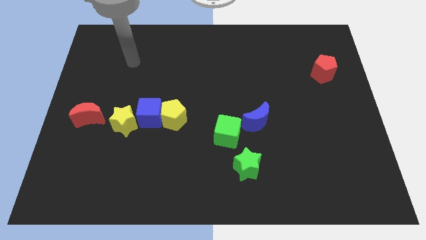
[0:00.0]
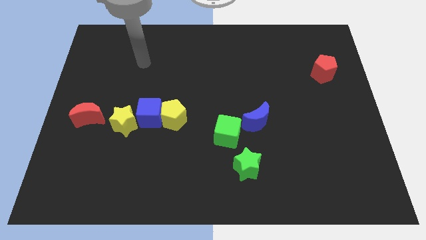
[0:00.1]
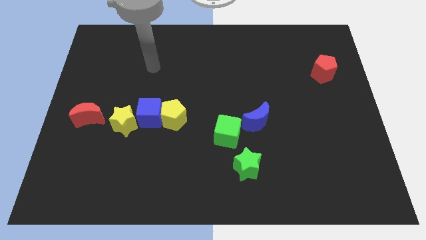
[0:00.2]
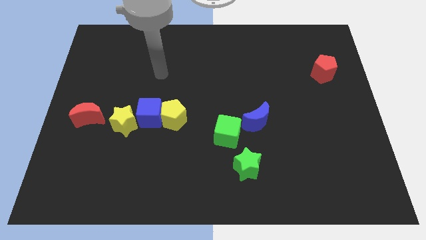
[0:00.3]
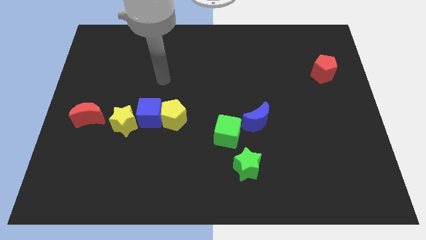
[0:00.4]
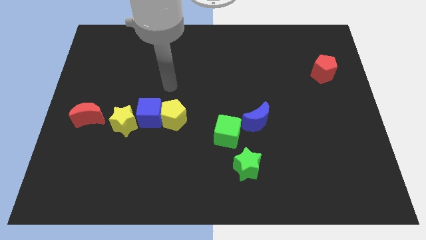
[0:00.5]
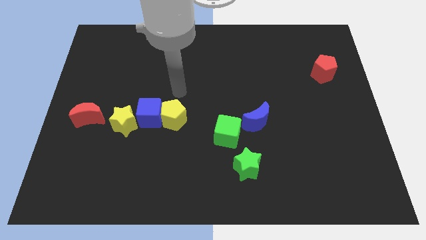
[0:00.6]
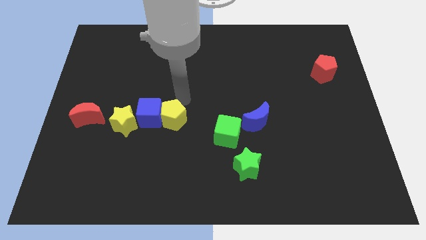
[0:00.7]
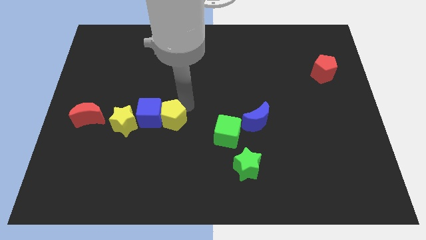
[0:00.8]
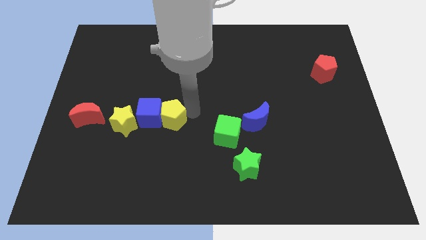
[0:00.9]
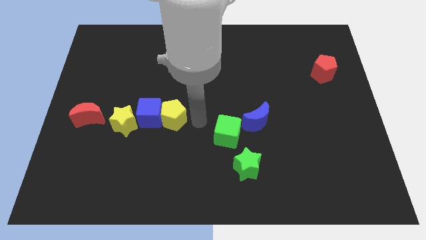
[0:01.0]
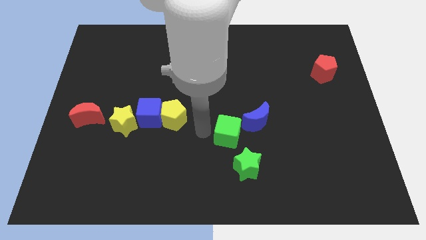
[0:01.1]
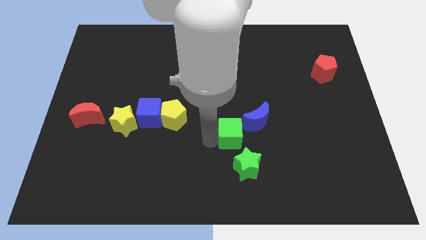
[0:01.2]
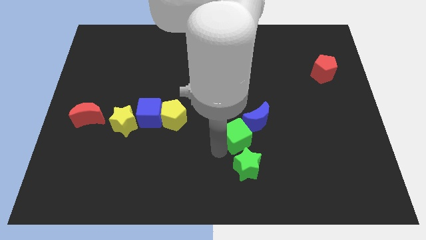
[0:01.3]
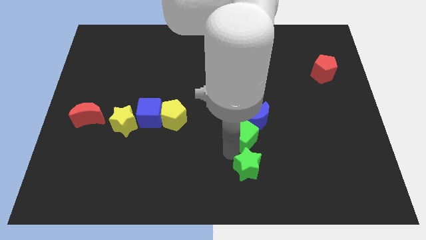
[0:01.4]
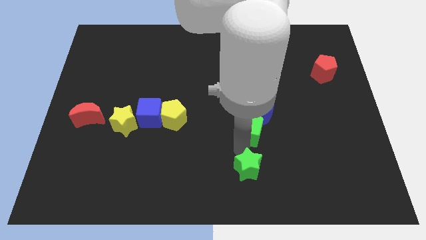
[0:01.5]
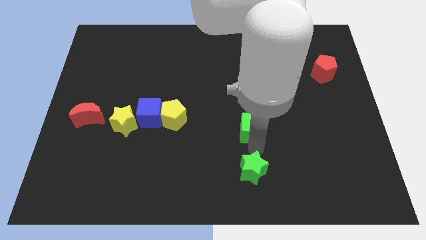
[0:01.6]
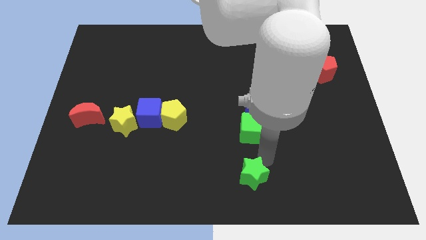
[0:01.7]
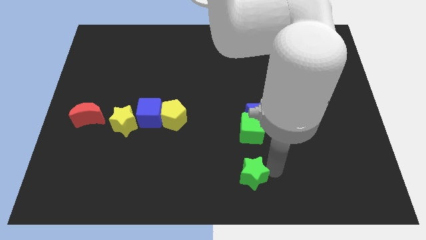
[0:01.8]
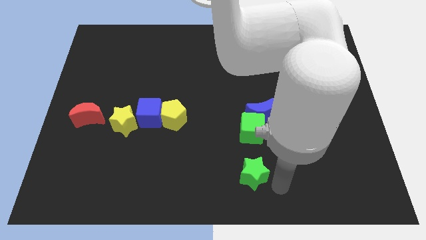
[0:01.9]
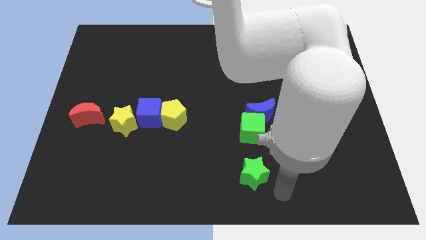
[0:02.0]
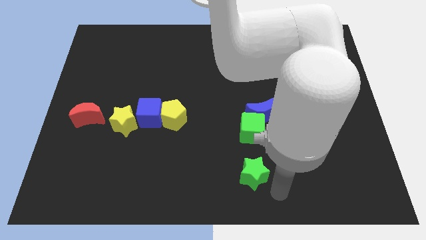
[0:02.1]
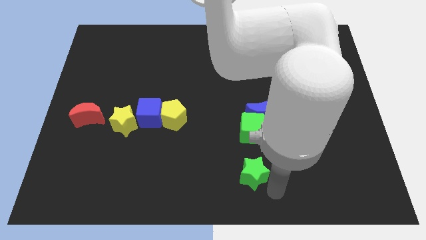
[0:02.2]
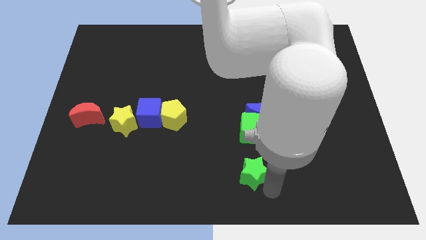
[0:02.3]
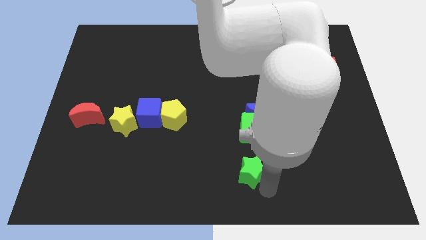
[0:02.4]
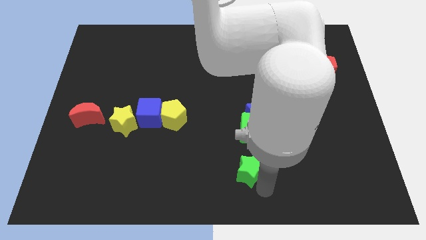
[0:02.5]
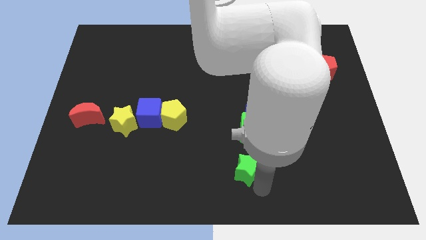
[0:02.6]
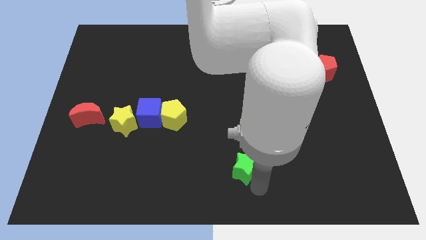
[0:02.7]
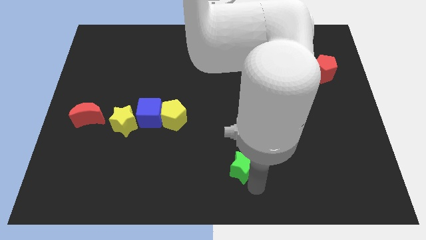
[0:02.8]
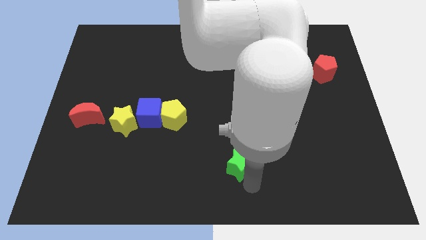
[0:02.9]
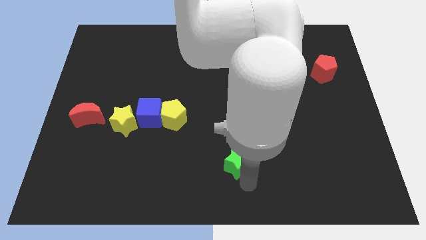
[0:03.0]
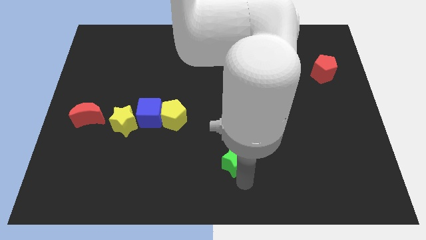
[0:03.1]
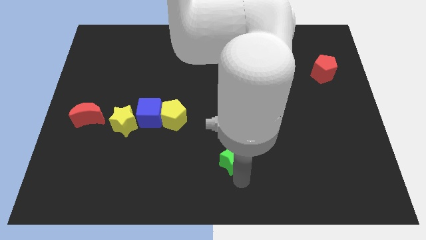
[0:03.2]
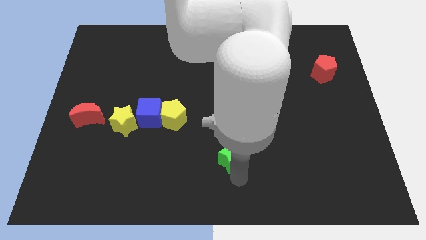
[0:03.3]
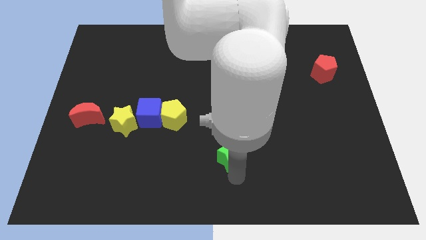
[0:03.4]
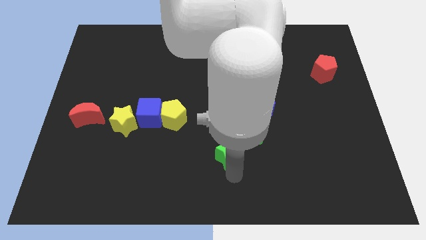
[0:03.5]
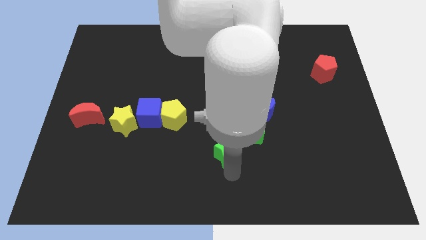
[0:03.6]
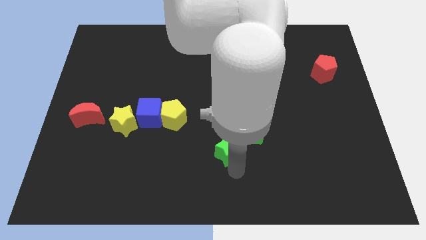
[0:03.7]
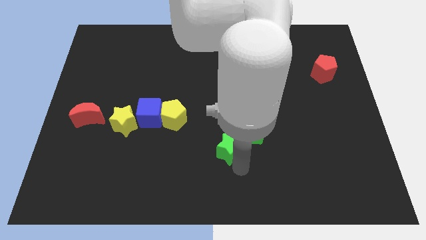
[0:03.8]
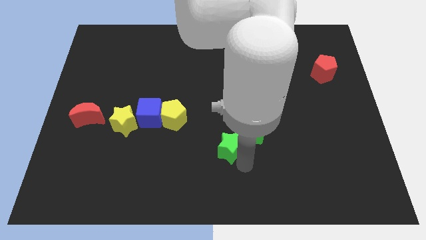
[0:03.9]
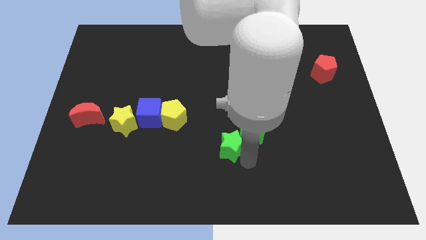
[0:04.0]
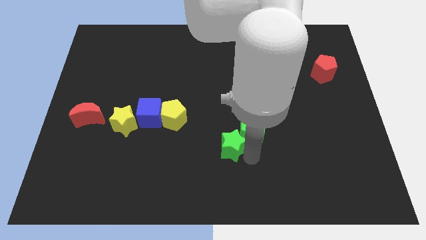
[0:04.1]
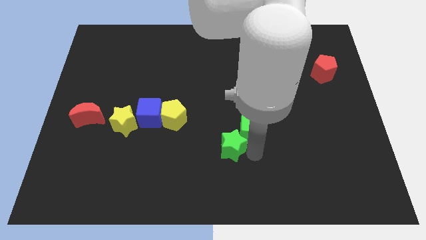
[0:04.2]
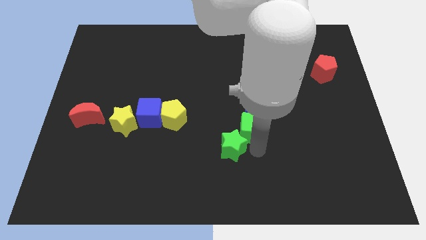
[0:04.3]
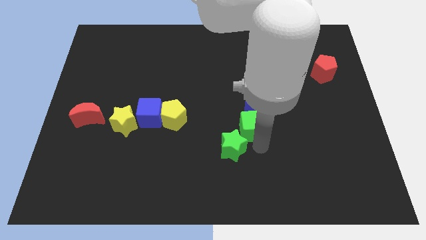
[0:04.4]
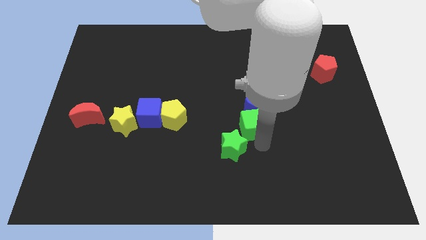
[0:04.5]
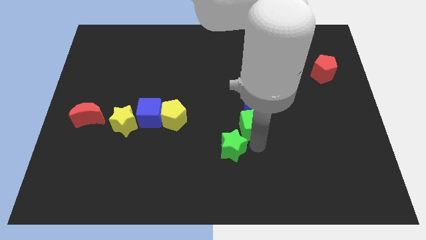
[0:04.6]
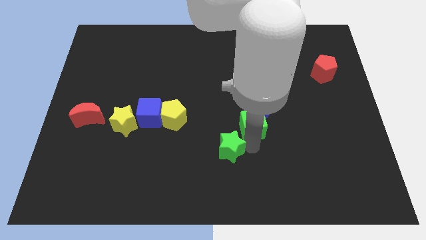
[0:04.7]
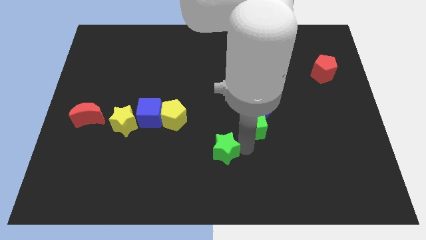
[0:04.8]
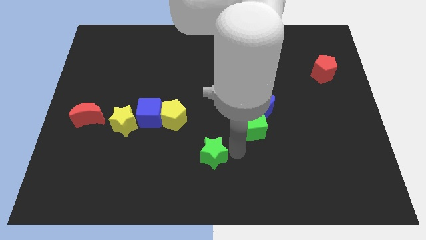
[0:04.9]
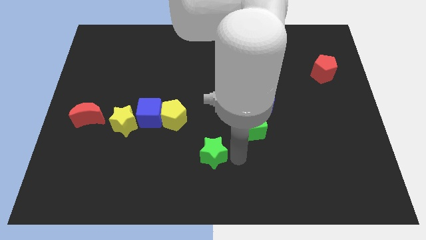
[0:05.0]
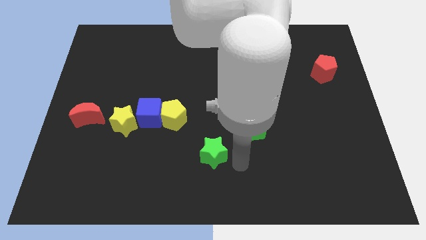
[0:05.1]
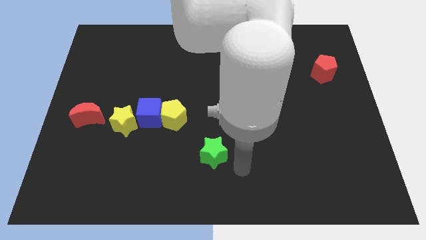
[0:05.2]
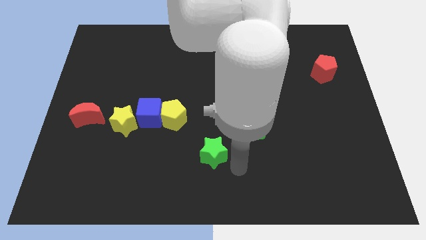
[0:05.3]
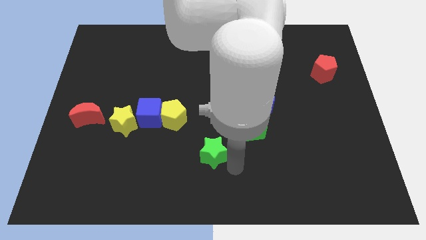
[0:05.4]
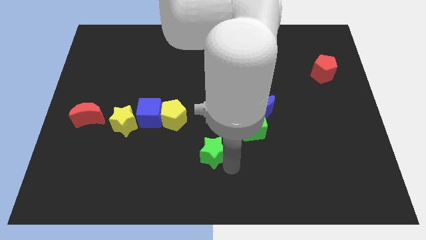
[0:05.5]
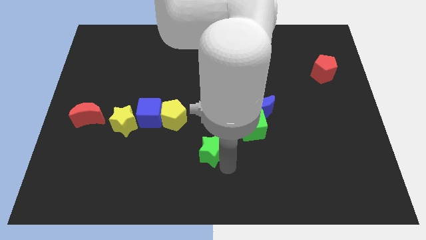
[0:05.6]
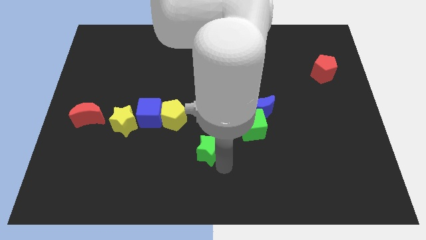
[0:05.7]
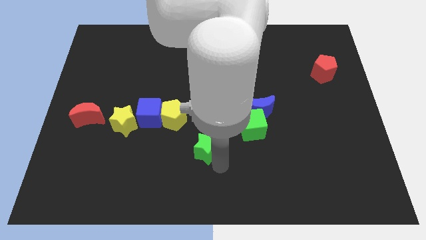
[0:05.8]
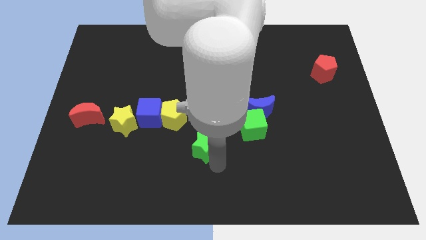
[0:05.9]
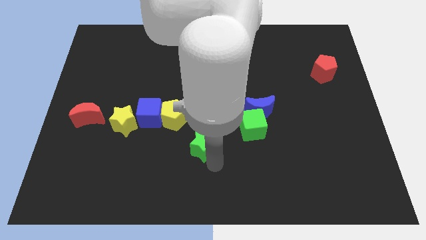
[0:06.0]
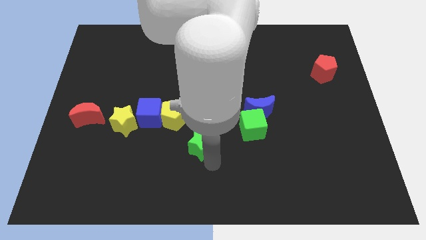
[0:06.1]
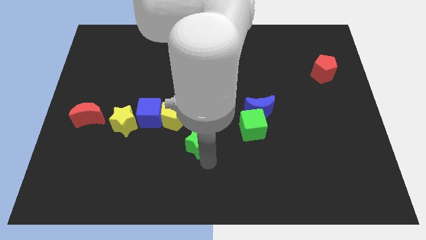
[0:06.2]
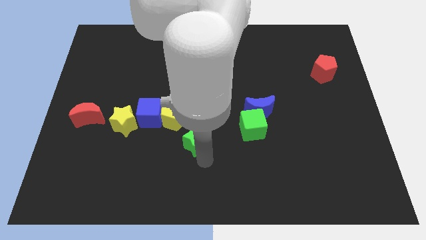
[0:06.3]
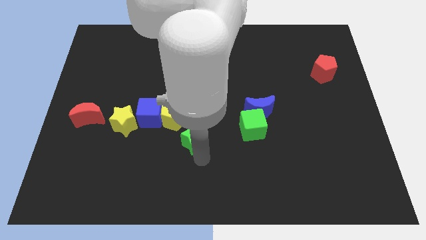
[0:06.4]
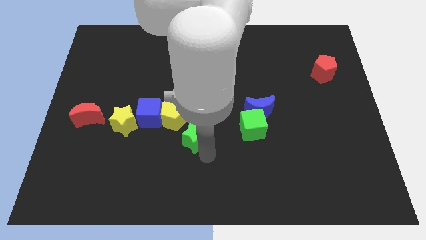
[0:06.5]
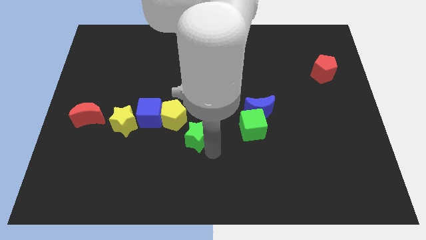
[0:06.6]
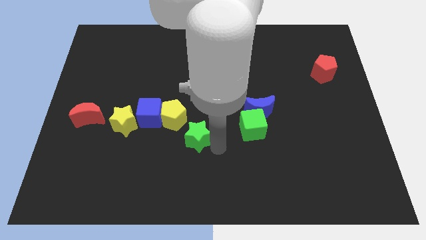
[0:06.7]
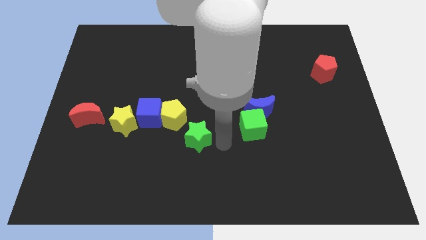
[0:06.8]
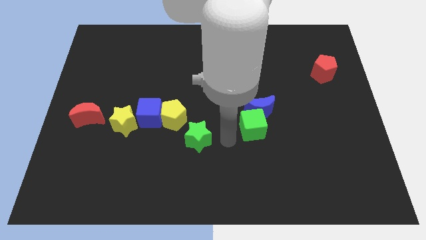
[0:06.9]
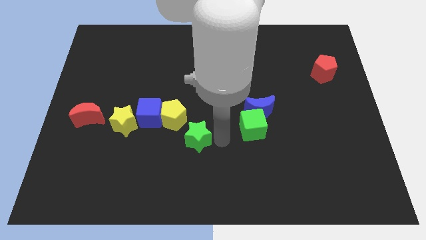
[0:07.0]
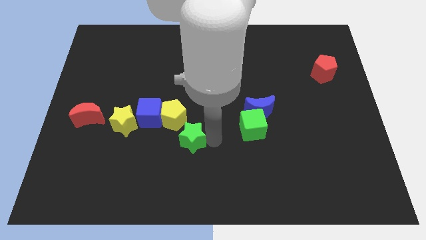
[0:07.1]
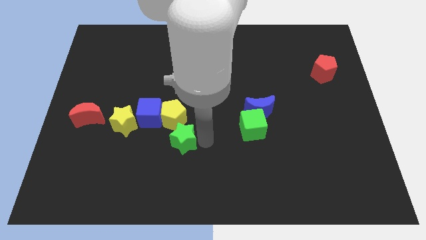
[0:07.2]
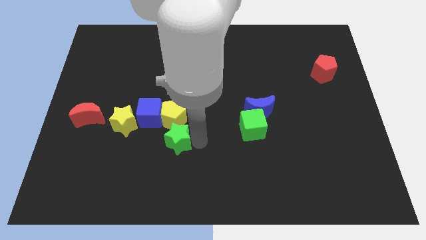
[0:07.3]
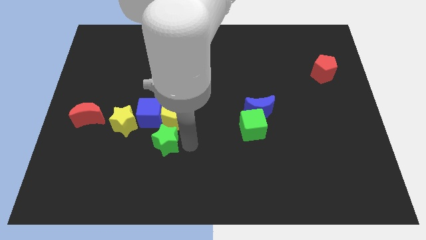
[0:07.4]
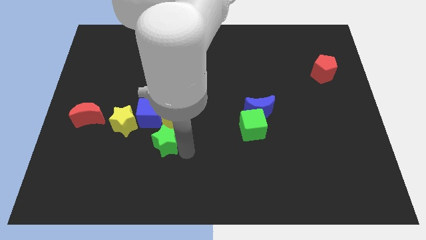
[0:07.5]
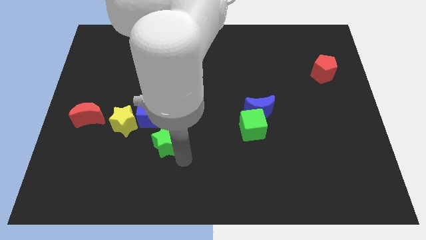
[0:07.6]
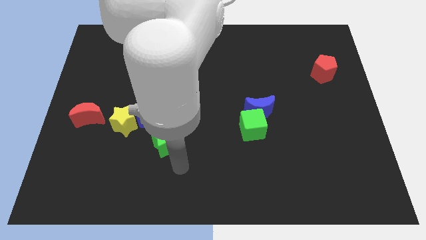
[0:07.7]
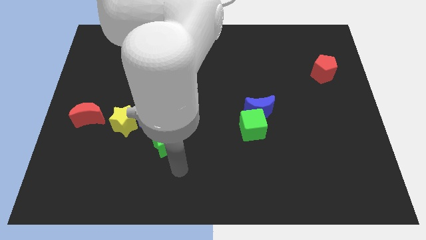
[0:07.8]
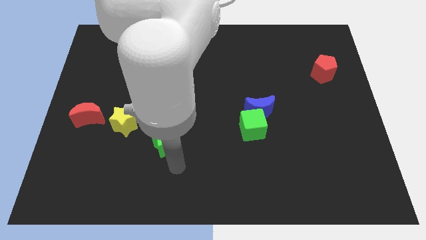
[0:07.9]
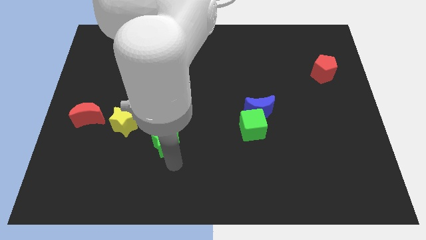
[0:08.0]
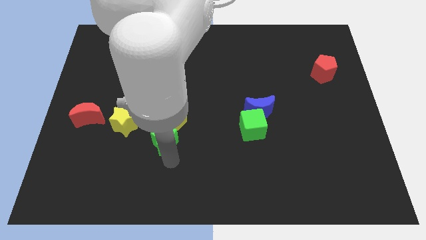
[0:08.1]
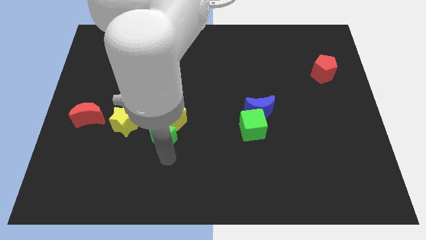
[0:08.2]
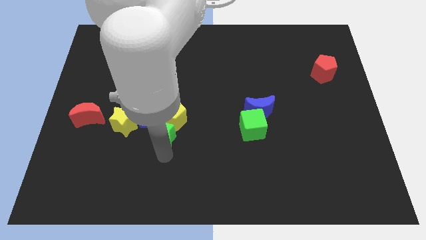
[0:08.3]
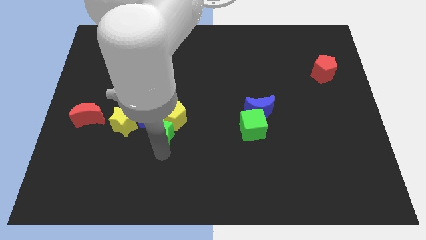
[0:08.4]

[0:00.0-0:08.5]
slide the green star towards the blue cube
